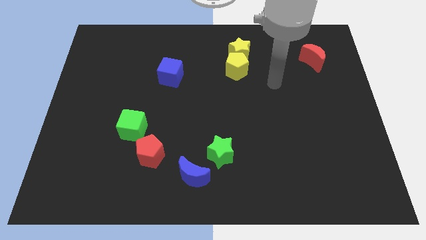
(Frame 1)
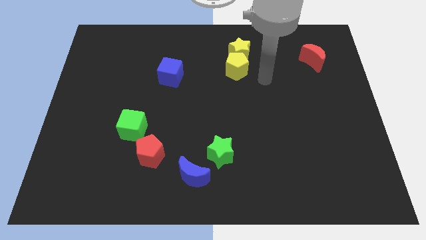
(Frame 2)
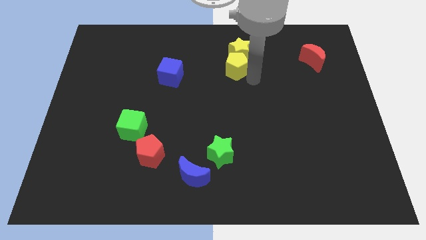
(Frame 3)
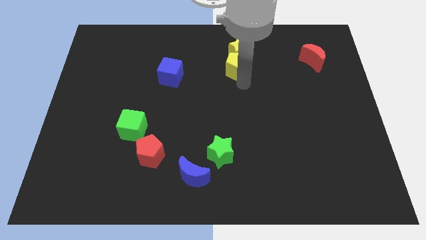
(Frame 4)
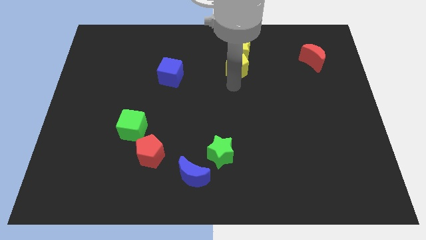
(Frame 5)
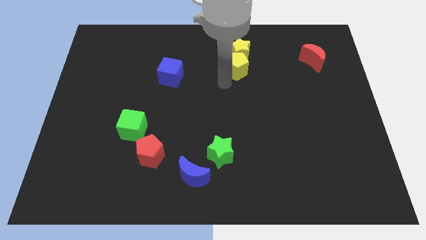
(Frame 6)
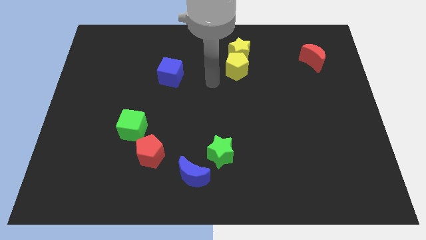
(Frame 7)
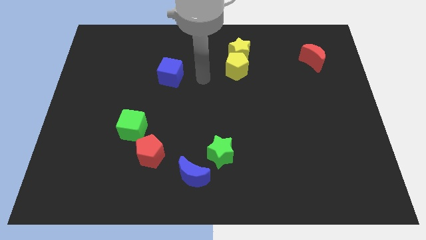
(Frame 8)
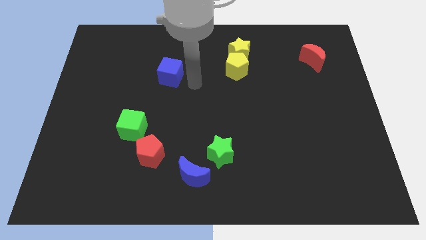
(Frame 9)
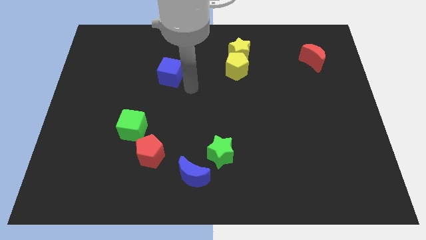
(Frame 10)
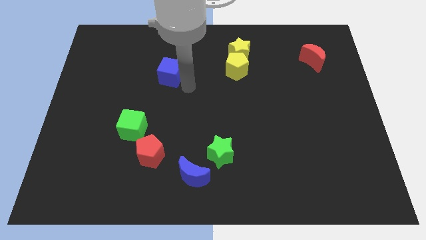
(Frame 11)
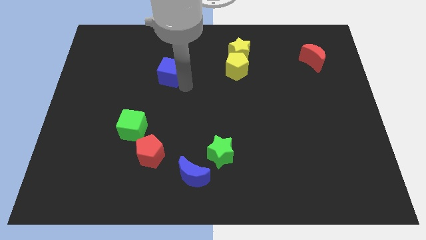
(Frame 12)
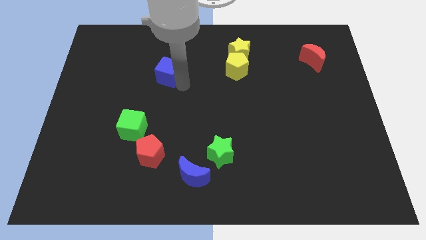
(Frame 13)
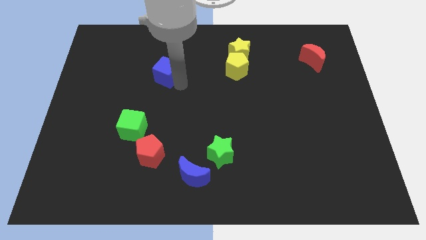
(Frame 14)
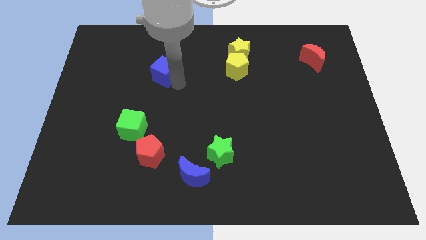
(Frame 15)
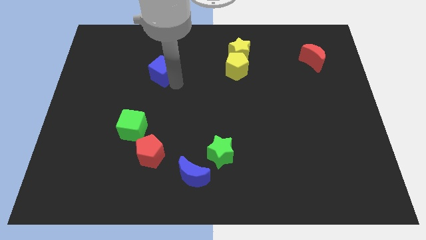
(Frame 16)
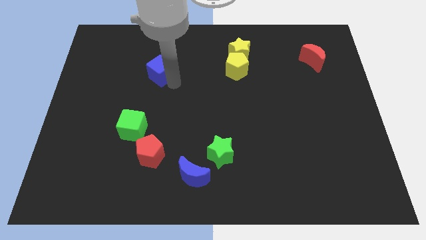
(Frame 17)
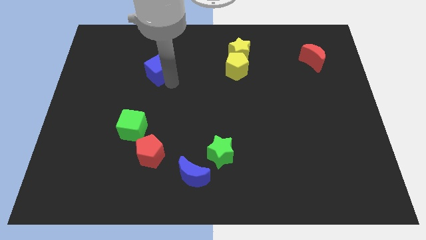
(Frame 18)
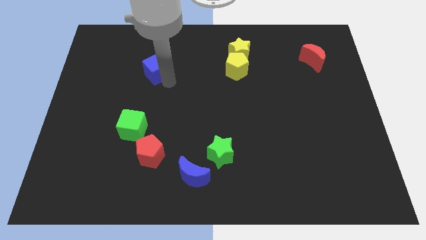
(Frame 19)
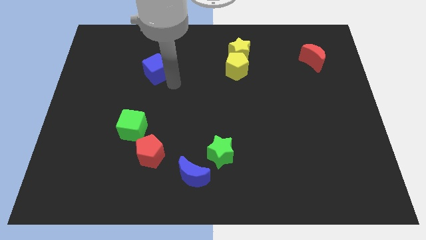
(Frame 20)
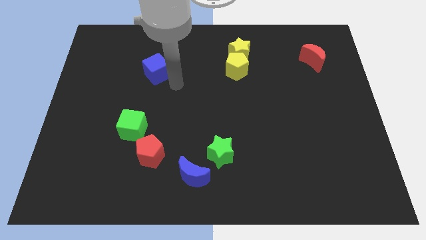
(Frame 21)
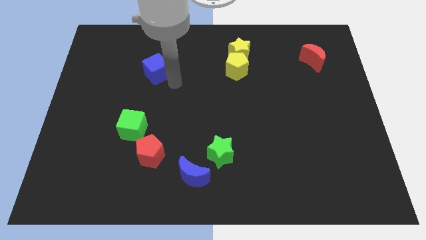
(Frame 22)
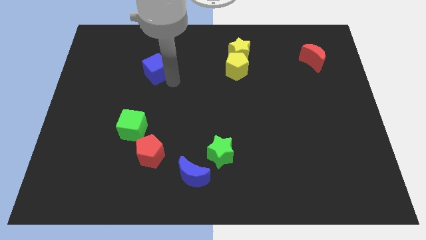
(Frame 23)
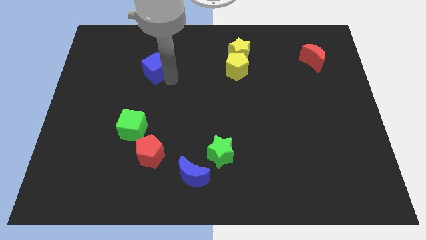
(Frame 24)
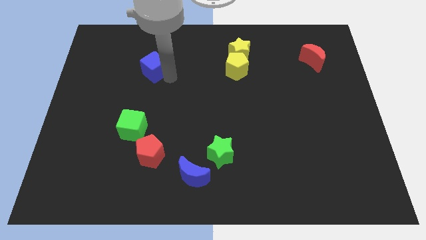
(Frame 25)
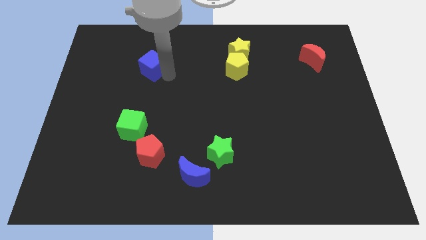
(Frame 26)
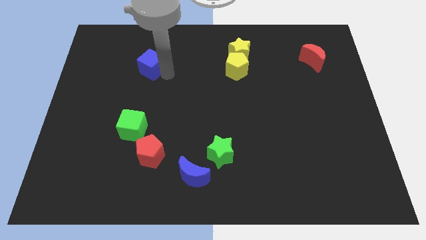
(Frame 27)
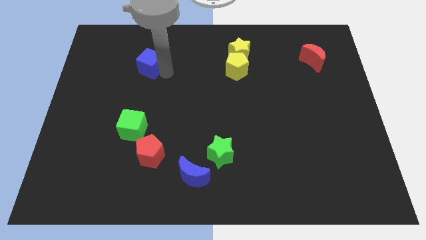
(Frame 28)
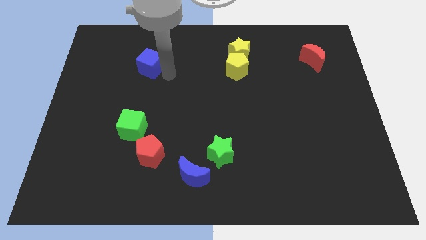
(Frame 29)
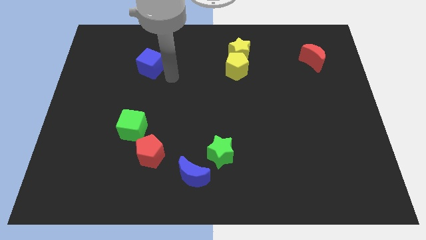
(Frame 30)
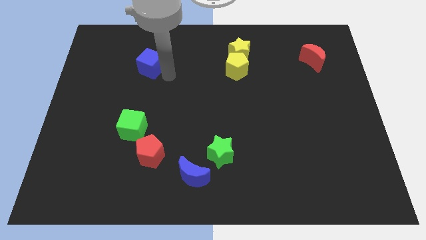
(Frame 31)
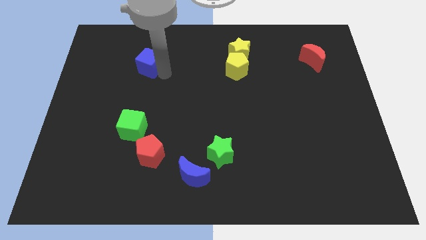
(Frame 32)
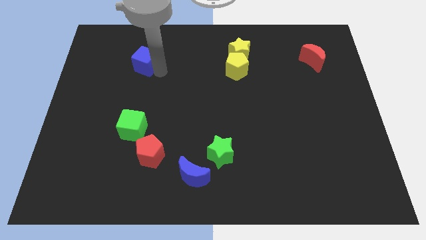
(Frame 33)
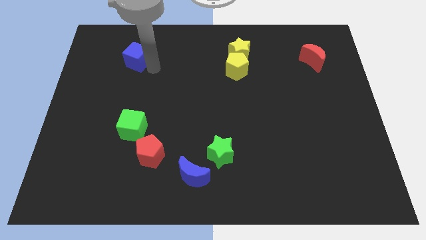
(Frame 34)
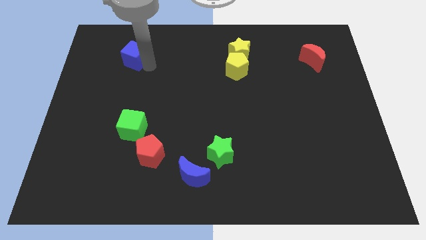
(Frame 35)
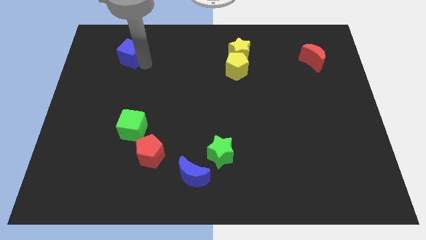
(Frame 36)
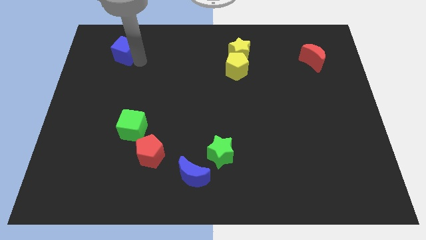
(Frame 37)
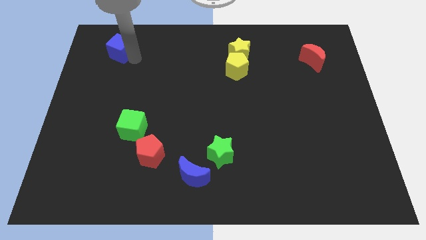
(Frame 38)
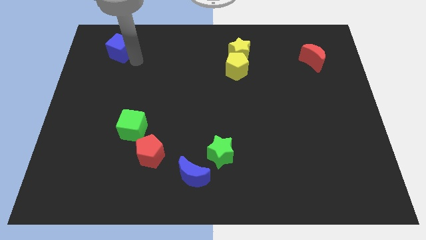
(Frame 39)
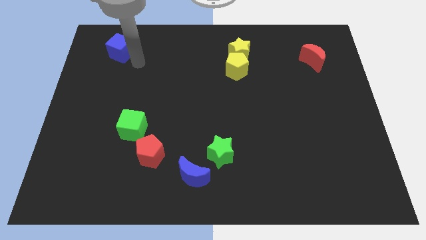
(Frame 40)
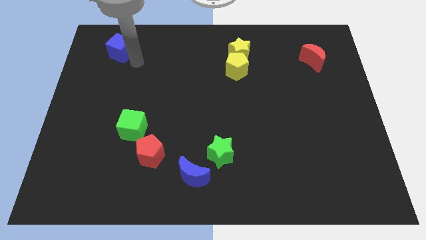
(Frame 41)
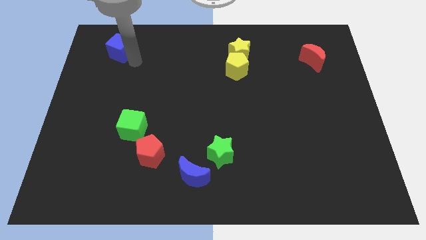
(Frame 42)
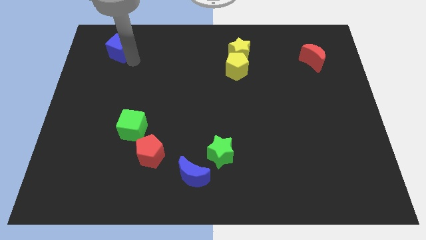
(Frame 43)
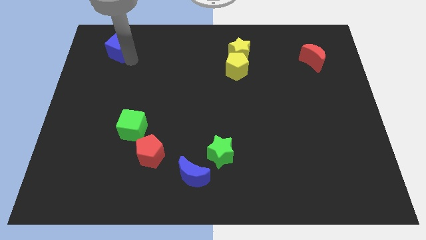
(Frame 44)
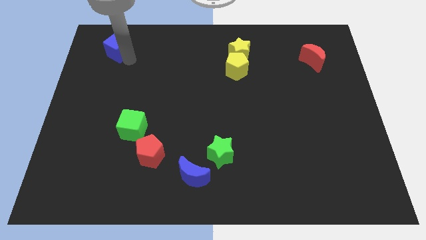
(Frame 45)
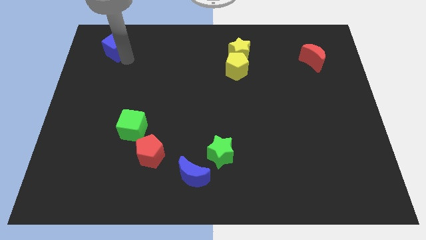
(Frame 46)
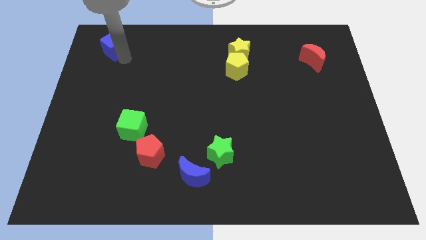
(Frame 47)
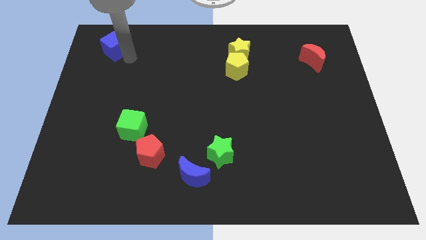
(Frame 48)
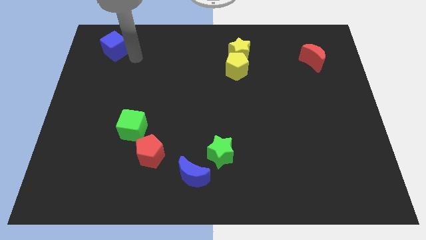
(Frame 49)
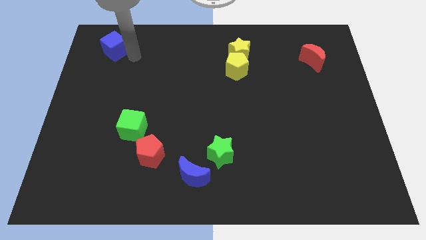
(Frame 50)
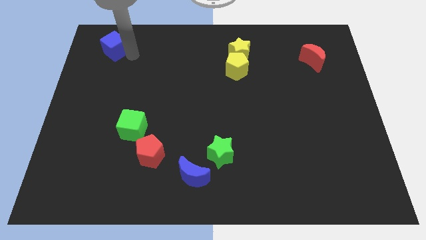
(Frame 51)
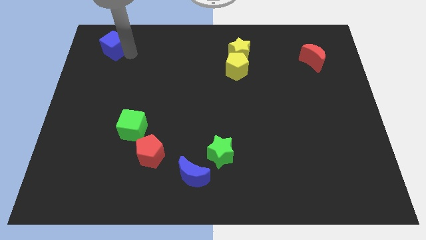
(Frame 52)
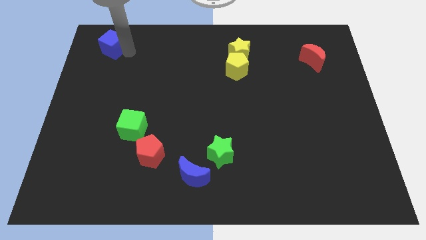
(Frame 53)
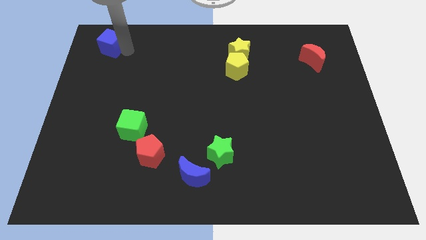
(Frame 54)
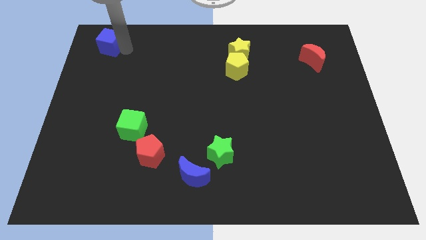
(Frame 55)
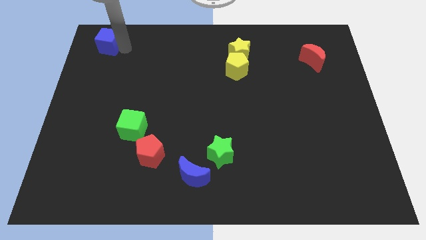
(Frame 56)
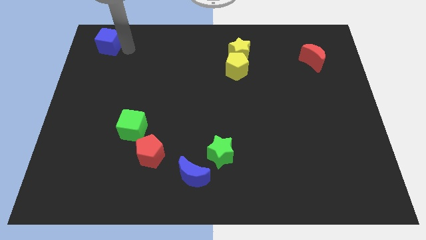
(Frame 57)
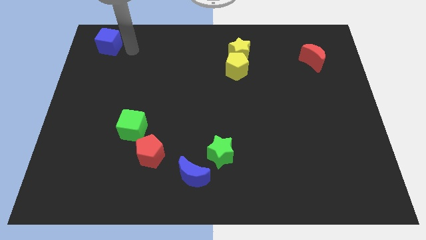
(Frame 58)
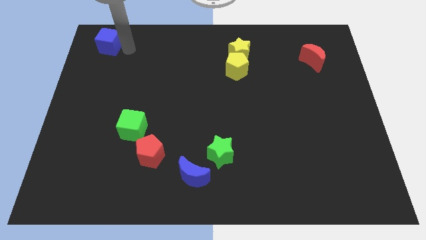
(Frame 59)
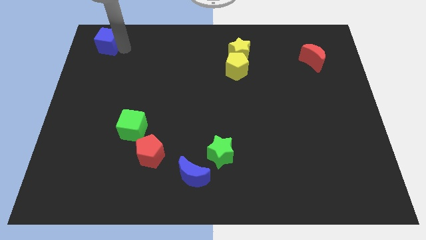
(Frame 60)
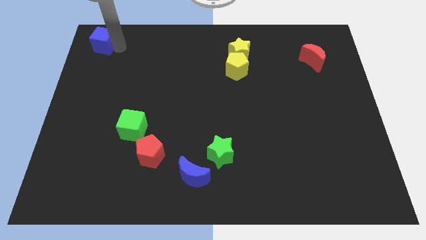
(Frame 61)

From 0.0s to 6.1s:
push the blue cube to the upper left corner
